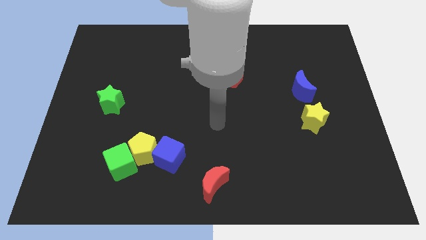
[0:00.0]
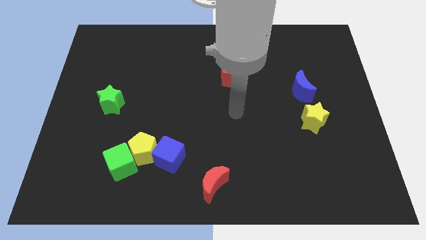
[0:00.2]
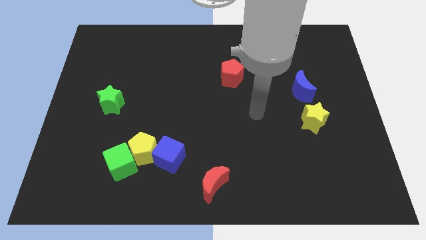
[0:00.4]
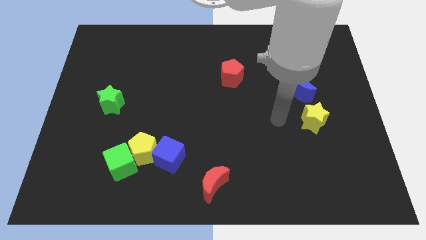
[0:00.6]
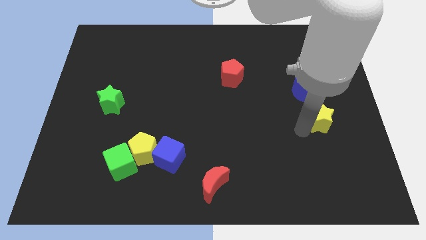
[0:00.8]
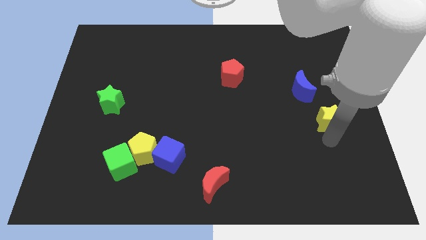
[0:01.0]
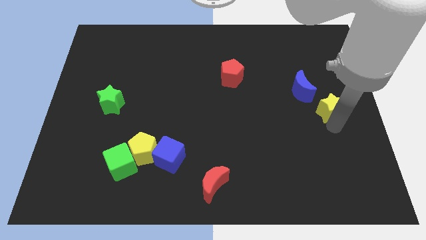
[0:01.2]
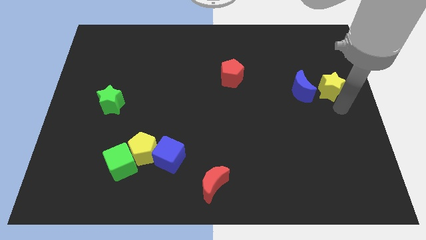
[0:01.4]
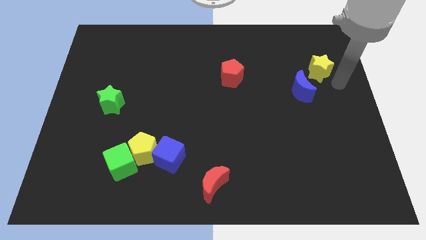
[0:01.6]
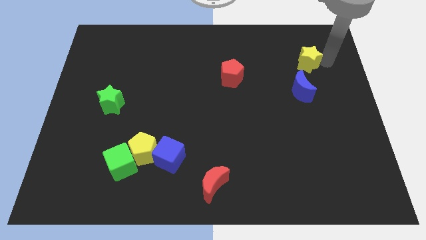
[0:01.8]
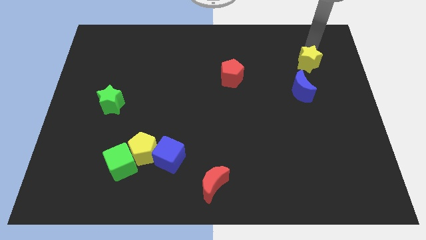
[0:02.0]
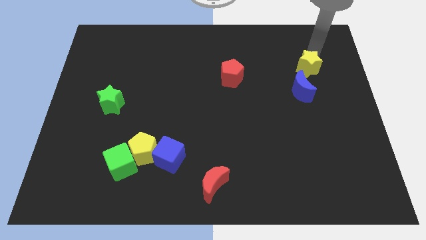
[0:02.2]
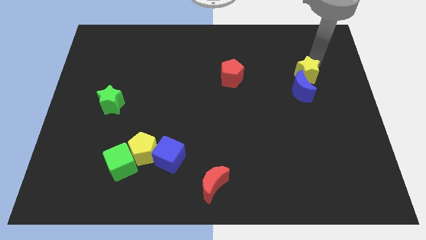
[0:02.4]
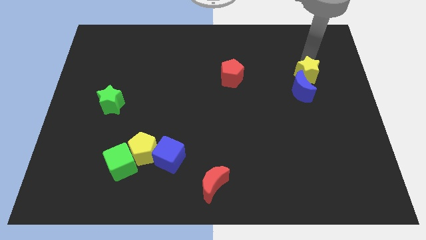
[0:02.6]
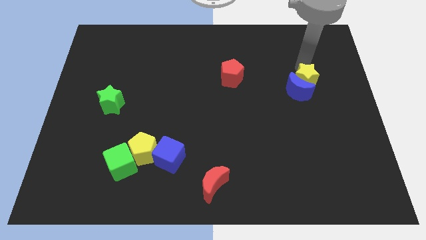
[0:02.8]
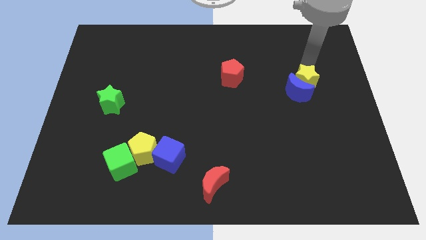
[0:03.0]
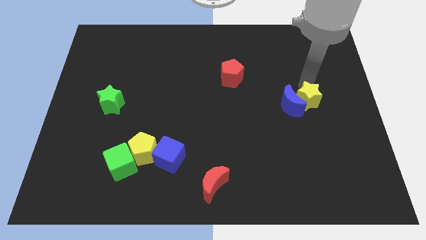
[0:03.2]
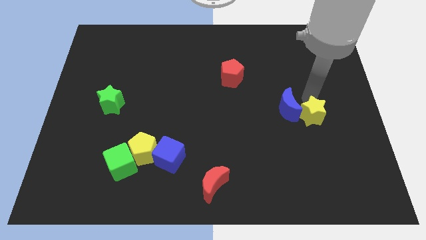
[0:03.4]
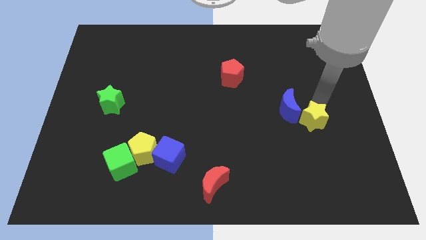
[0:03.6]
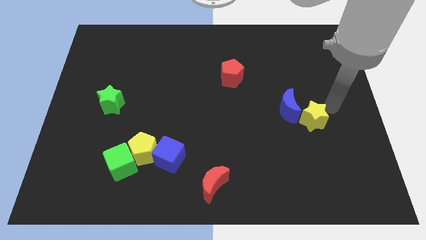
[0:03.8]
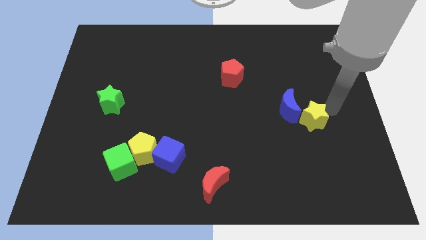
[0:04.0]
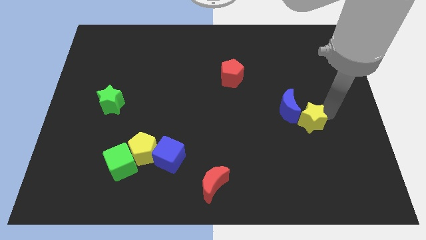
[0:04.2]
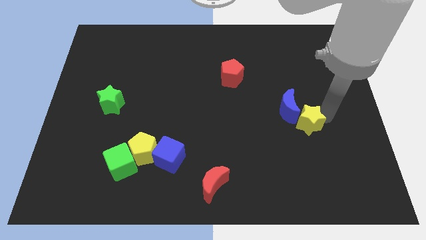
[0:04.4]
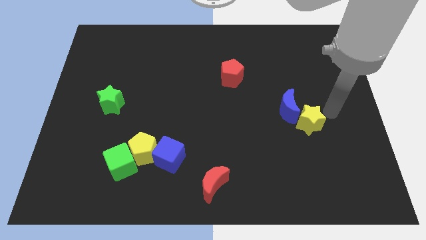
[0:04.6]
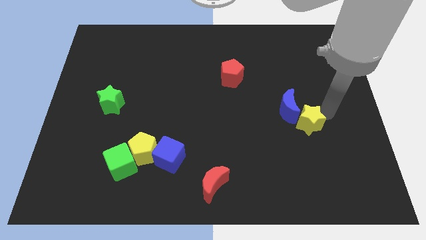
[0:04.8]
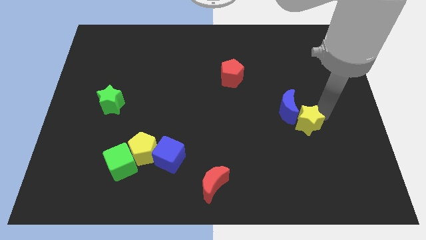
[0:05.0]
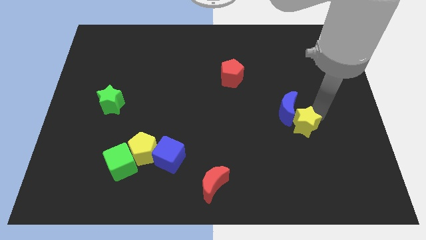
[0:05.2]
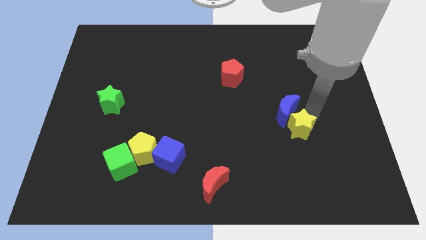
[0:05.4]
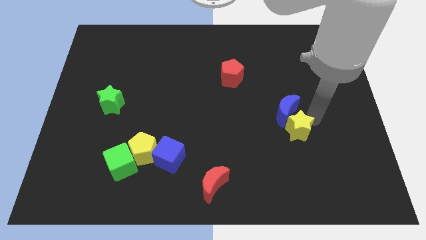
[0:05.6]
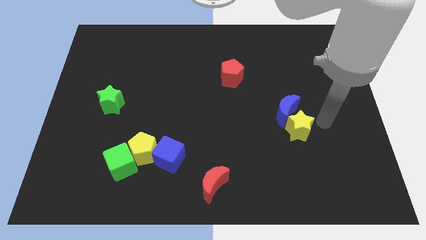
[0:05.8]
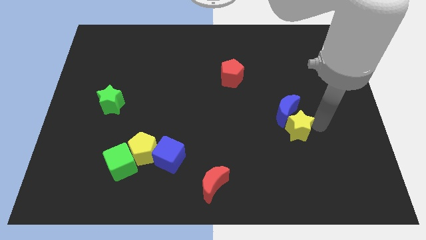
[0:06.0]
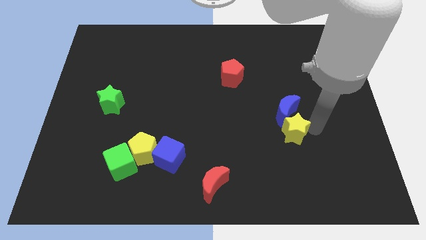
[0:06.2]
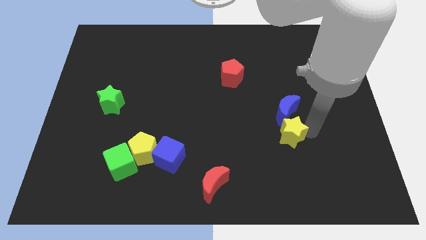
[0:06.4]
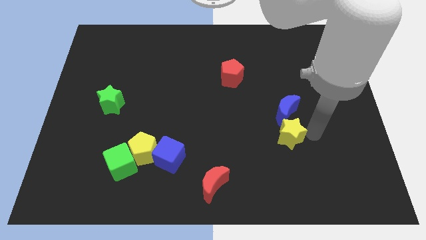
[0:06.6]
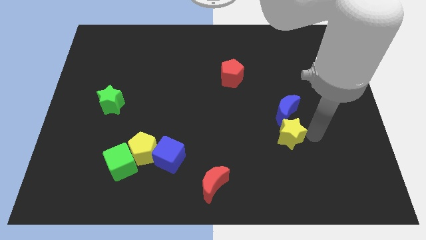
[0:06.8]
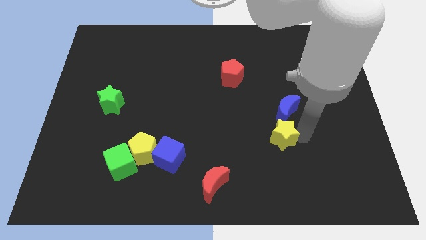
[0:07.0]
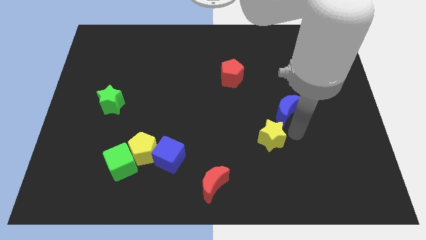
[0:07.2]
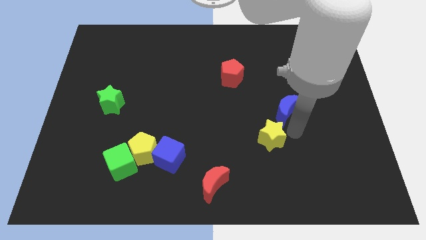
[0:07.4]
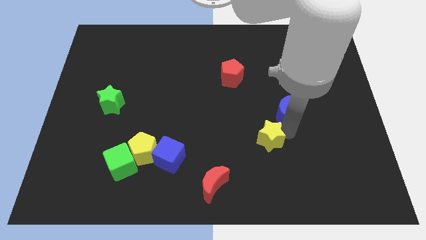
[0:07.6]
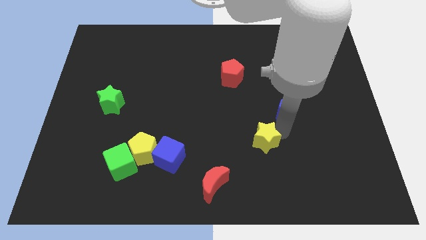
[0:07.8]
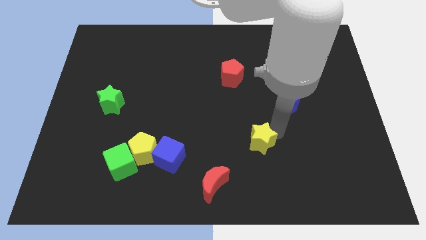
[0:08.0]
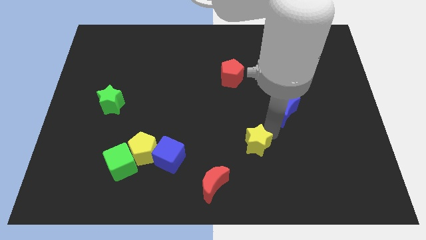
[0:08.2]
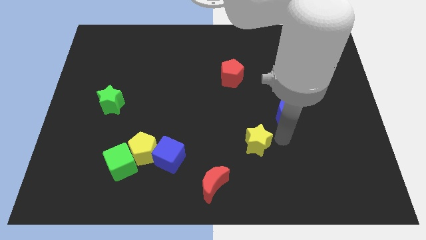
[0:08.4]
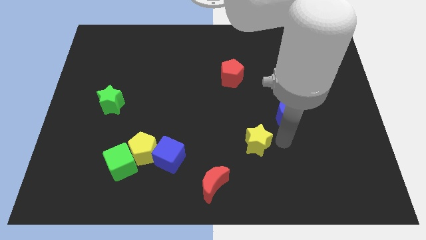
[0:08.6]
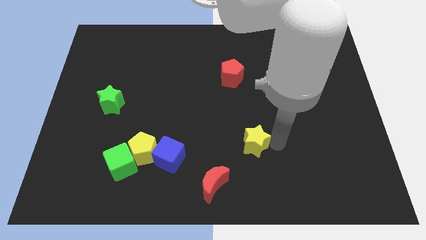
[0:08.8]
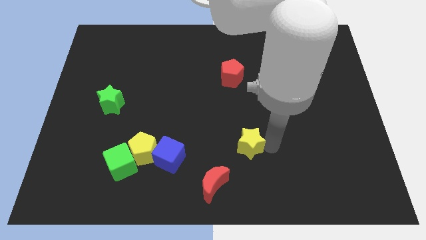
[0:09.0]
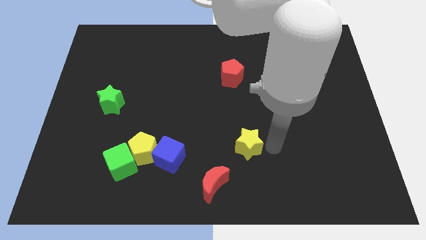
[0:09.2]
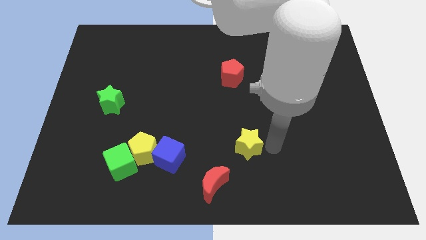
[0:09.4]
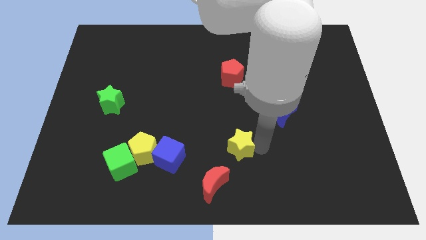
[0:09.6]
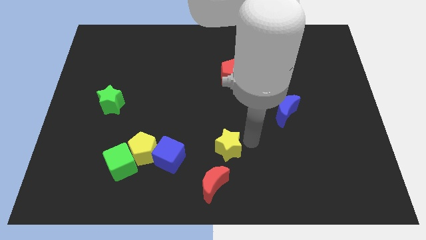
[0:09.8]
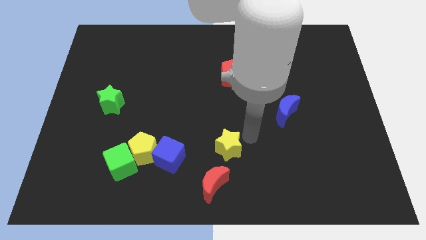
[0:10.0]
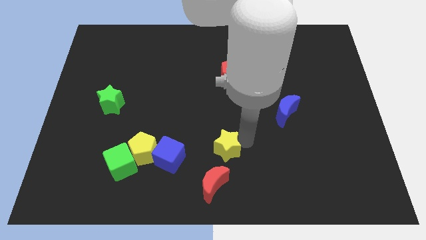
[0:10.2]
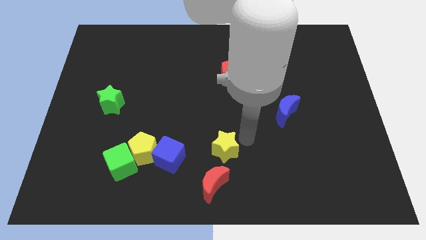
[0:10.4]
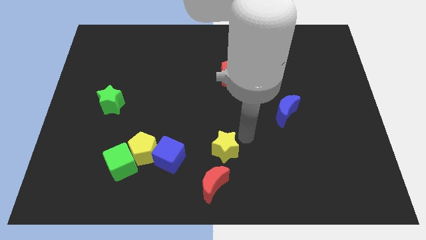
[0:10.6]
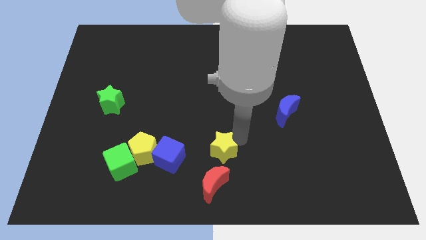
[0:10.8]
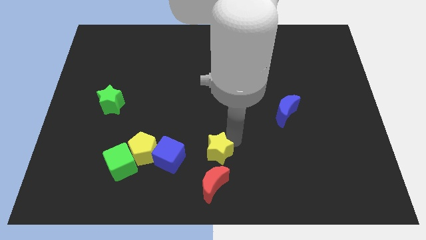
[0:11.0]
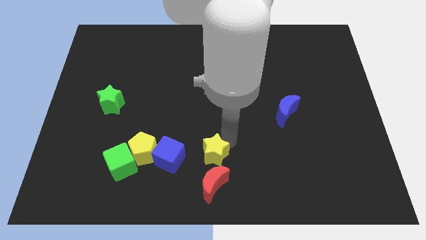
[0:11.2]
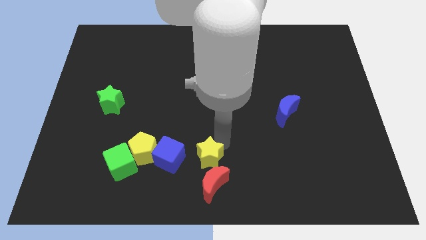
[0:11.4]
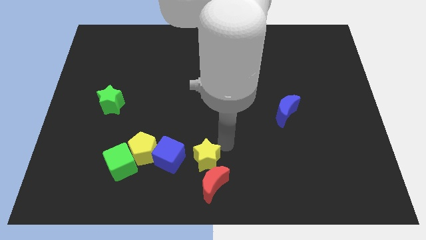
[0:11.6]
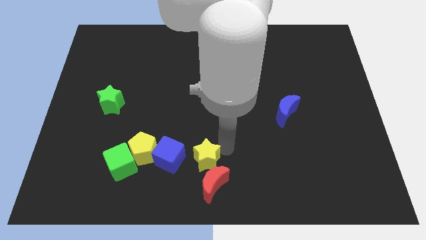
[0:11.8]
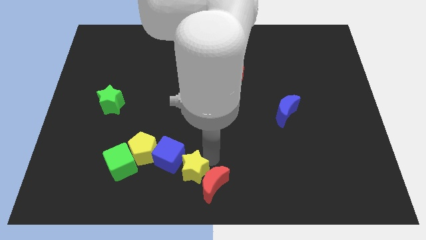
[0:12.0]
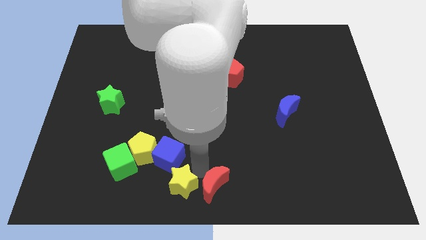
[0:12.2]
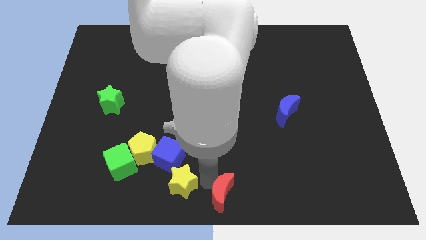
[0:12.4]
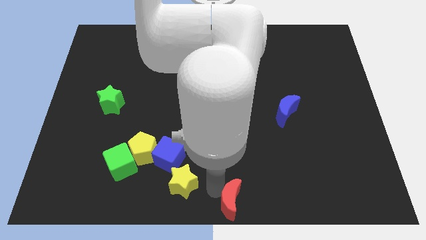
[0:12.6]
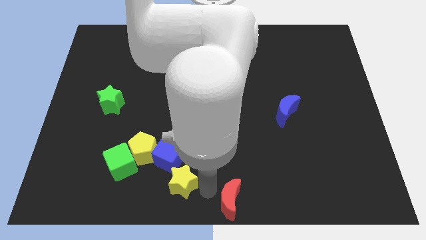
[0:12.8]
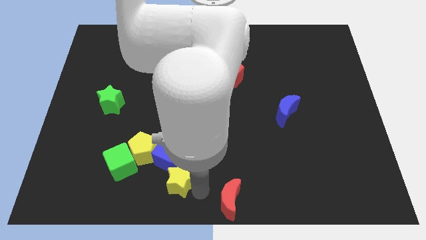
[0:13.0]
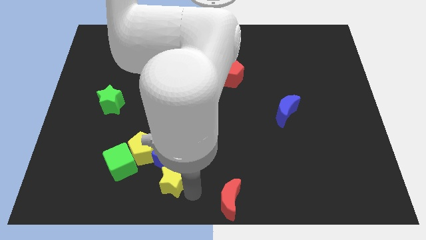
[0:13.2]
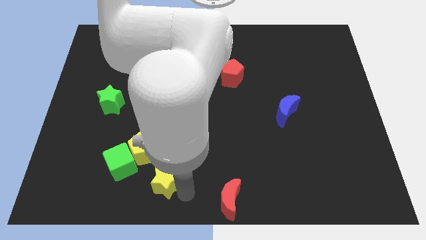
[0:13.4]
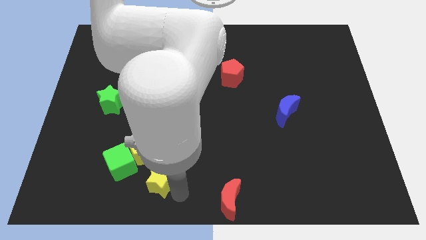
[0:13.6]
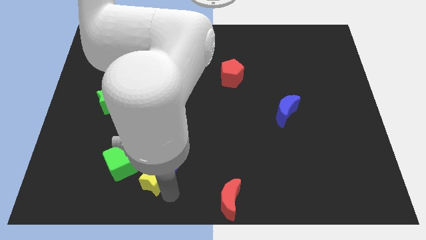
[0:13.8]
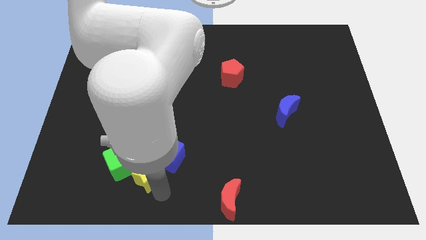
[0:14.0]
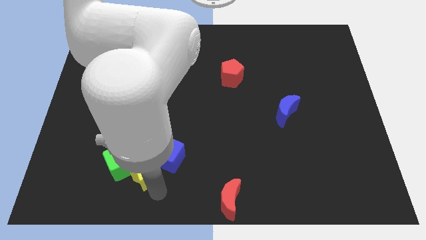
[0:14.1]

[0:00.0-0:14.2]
put the yellow star towards the green cube
